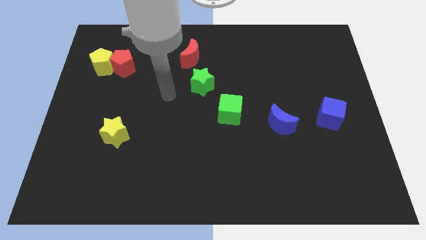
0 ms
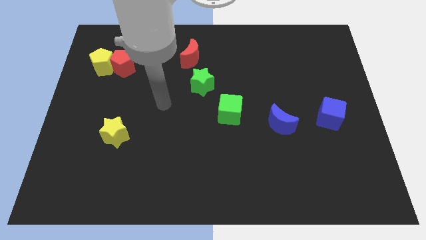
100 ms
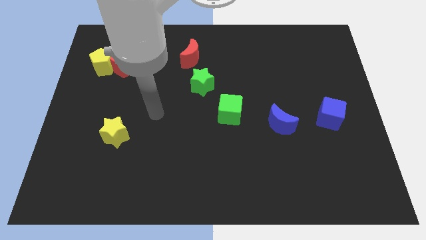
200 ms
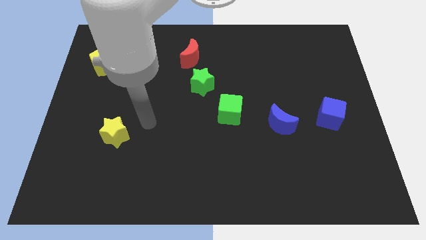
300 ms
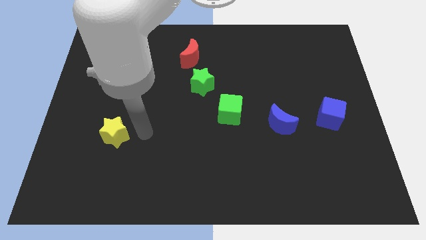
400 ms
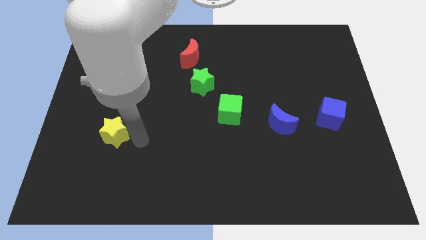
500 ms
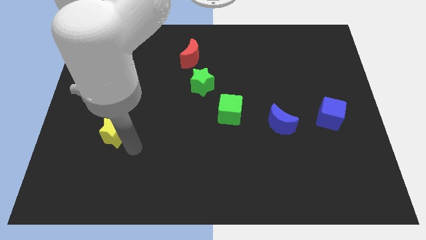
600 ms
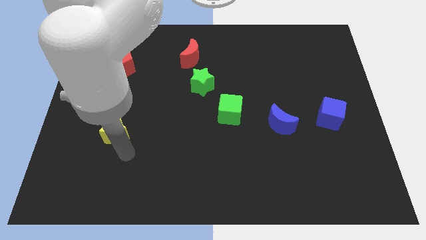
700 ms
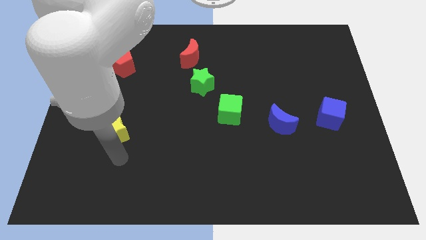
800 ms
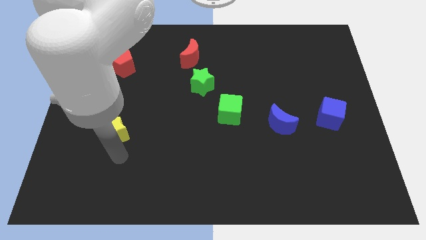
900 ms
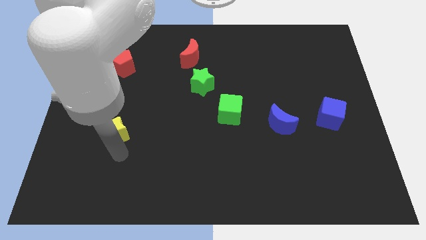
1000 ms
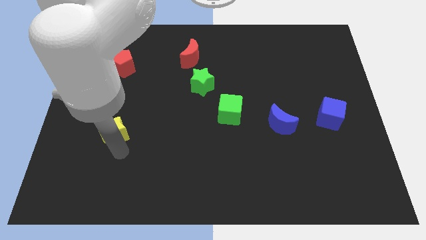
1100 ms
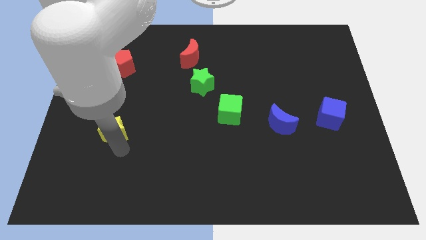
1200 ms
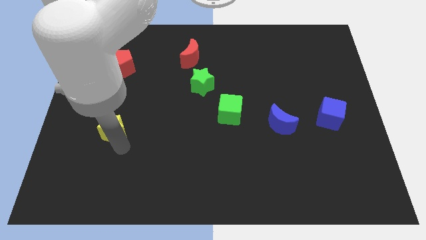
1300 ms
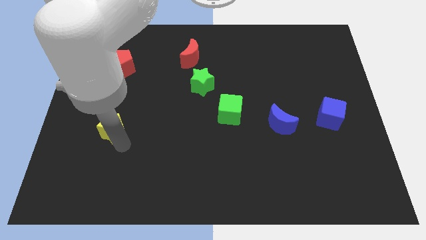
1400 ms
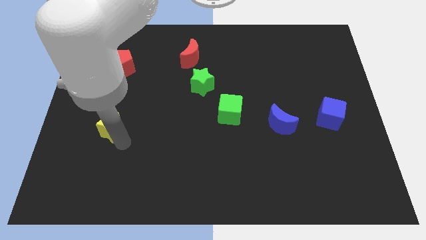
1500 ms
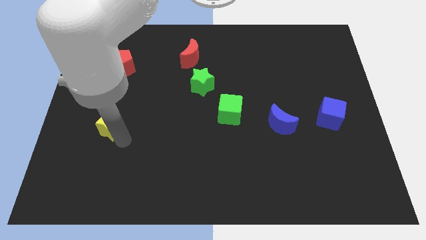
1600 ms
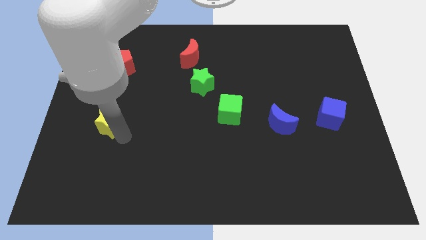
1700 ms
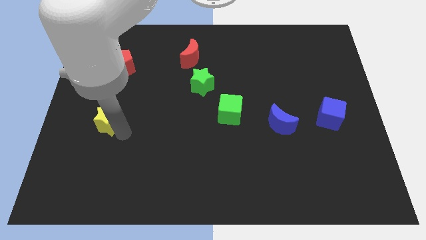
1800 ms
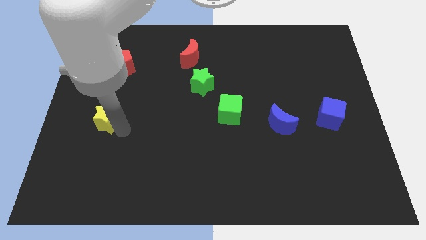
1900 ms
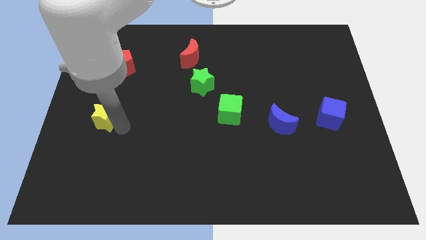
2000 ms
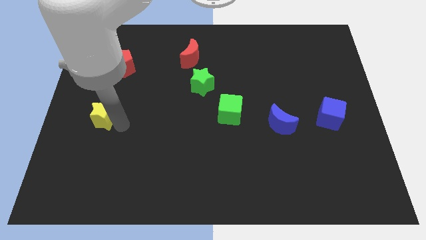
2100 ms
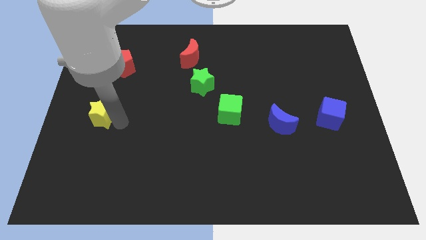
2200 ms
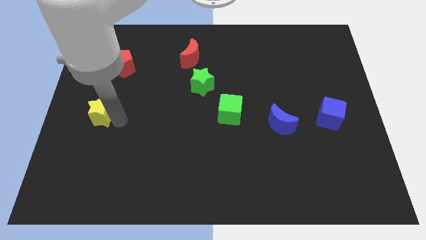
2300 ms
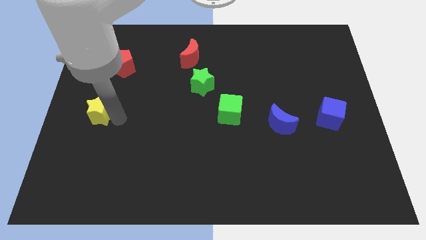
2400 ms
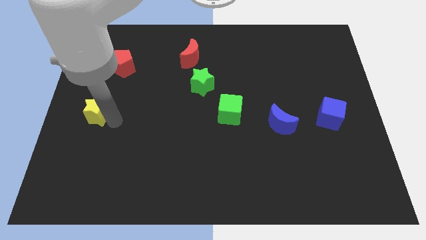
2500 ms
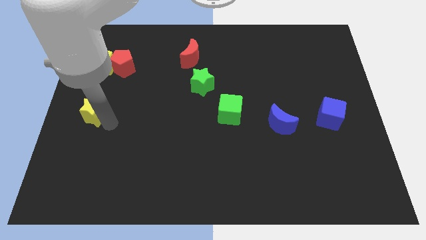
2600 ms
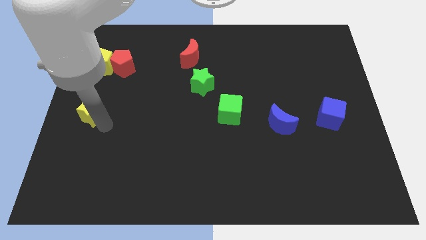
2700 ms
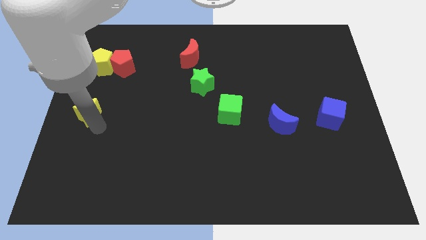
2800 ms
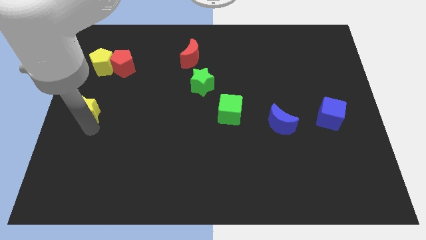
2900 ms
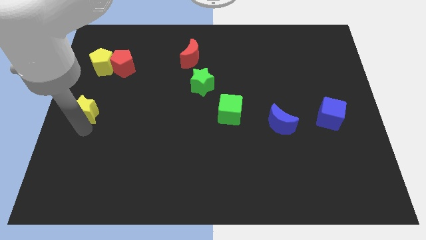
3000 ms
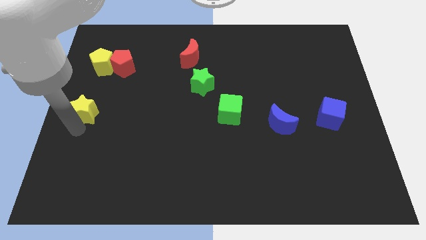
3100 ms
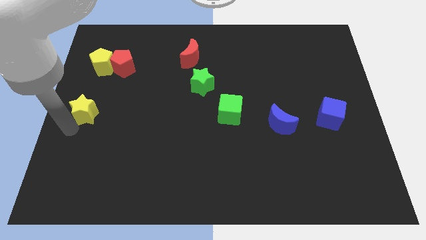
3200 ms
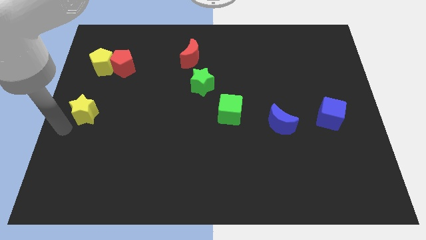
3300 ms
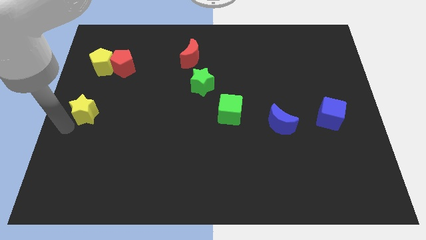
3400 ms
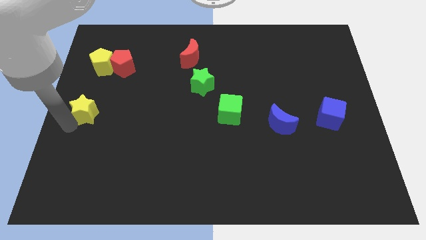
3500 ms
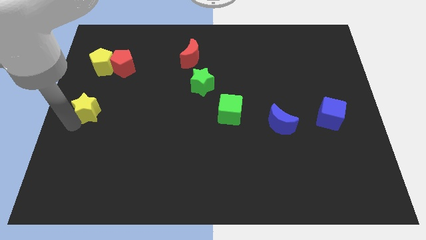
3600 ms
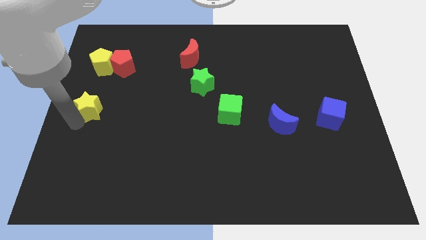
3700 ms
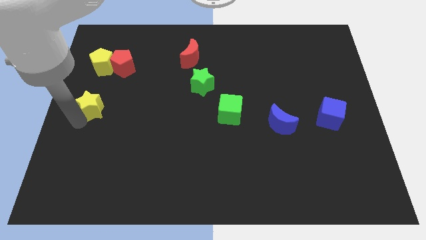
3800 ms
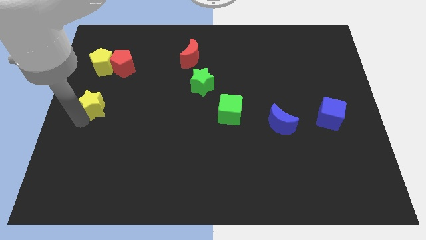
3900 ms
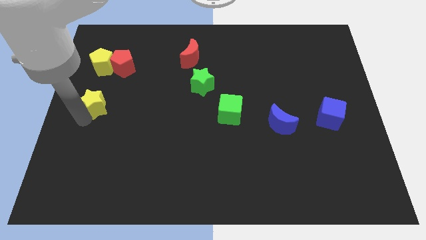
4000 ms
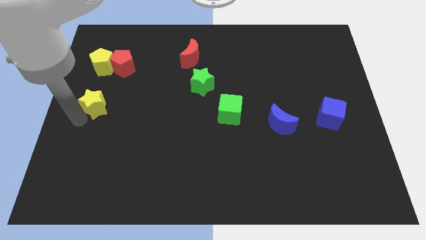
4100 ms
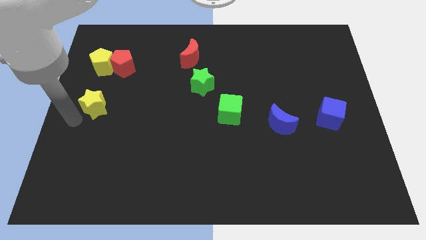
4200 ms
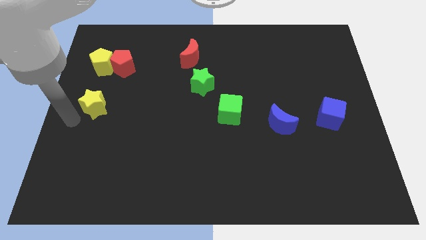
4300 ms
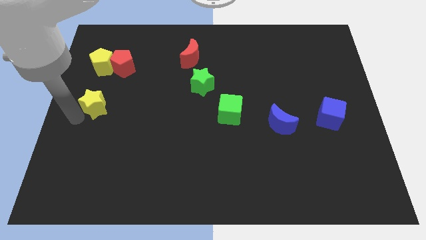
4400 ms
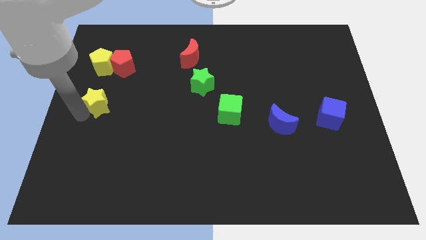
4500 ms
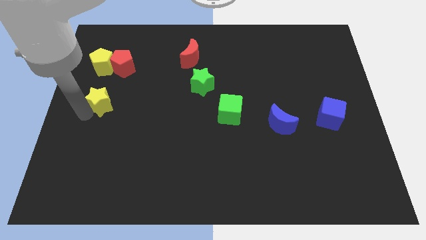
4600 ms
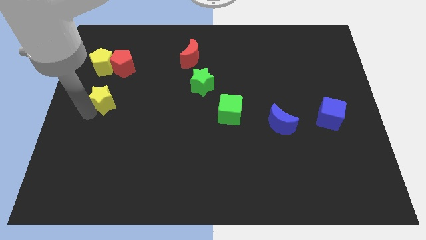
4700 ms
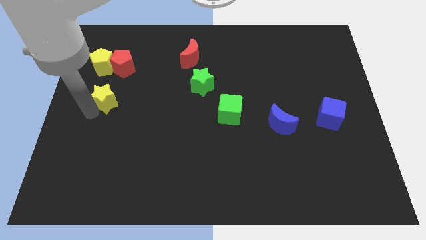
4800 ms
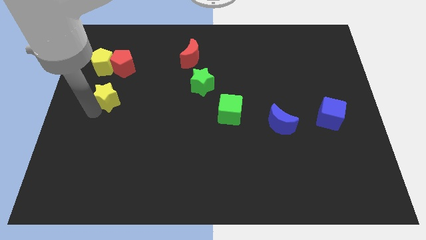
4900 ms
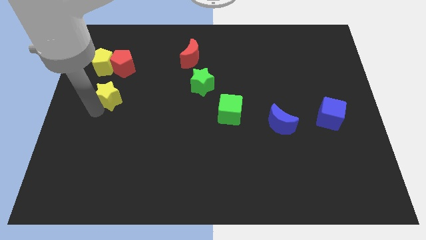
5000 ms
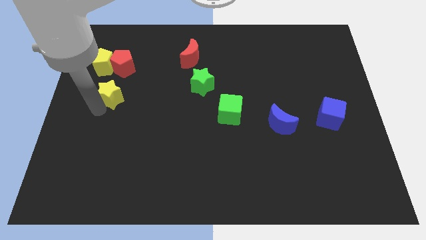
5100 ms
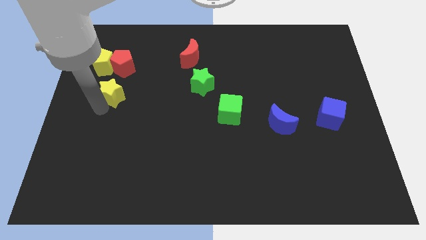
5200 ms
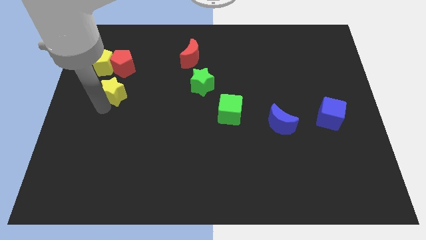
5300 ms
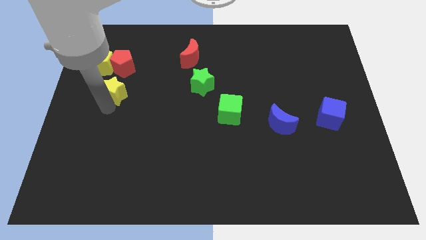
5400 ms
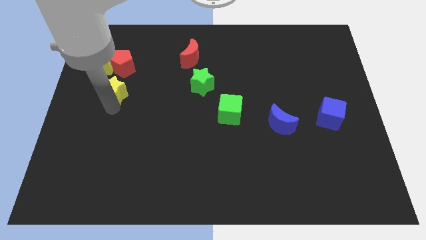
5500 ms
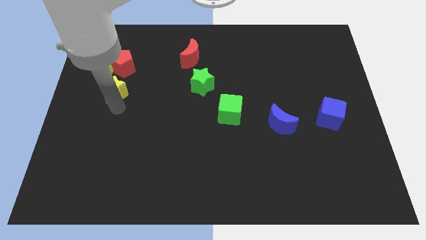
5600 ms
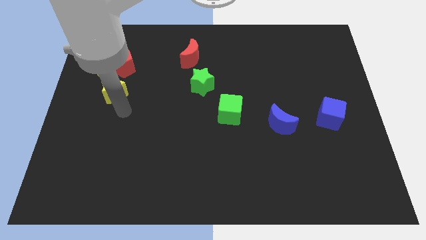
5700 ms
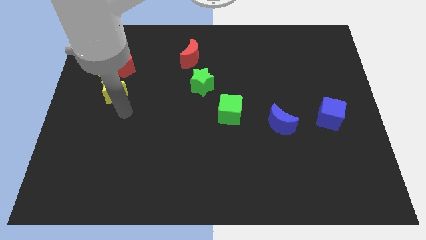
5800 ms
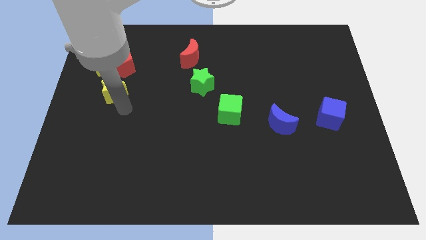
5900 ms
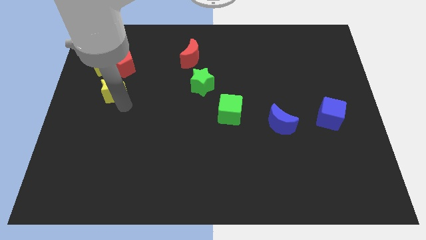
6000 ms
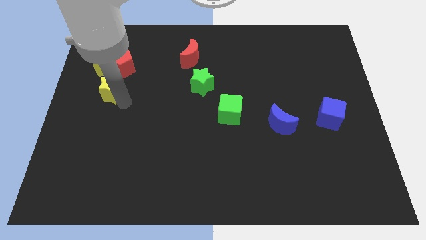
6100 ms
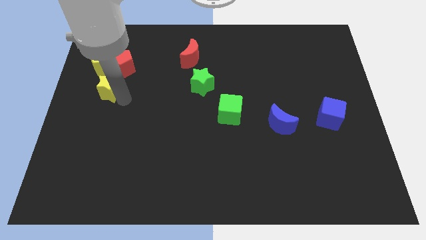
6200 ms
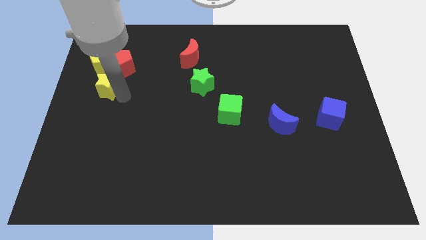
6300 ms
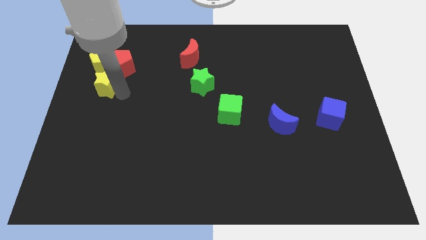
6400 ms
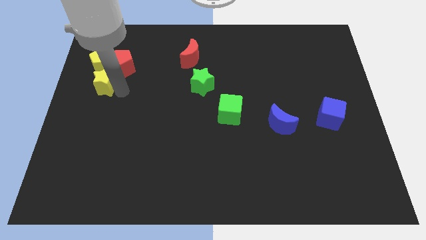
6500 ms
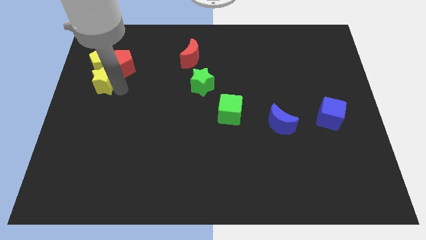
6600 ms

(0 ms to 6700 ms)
push the yellow star next to the yellow pentagon
